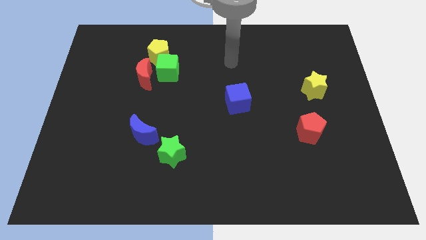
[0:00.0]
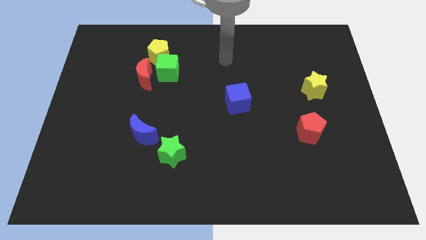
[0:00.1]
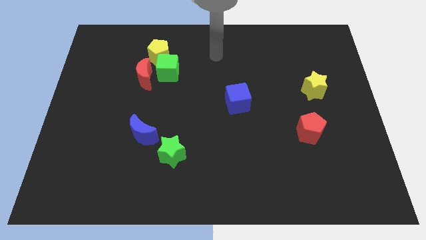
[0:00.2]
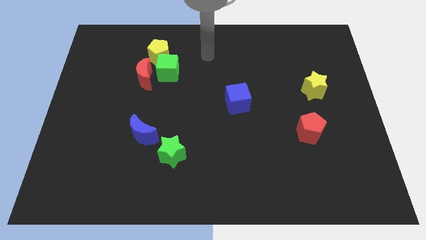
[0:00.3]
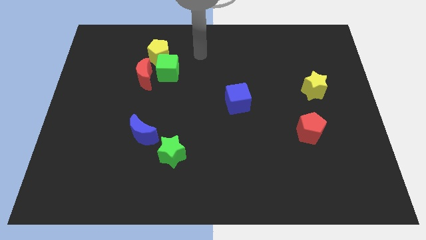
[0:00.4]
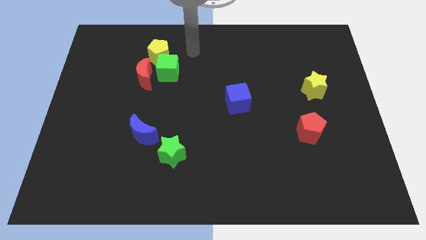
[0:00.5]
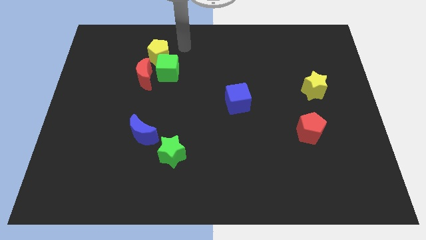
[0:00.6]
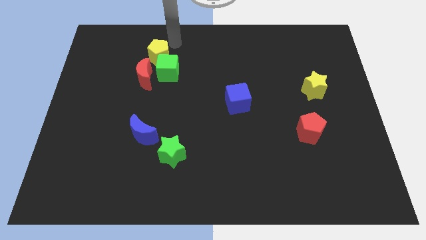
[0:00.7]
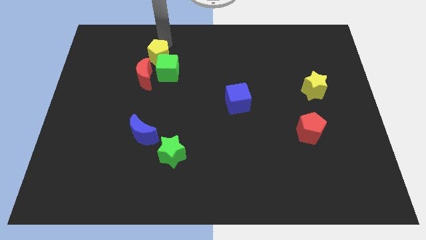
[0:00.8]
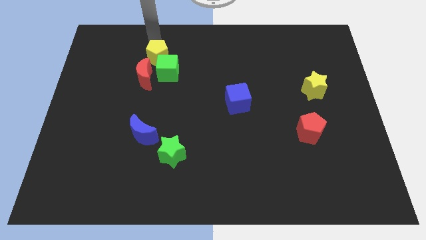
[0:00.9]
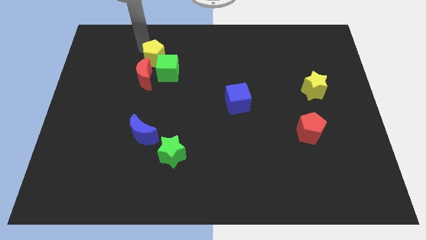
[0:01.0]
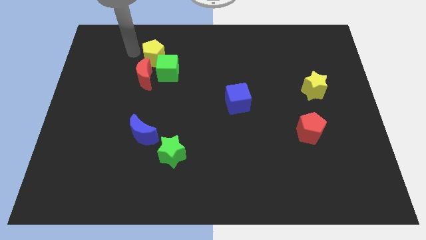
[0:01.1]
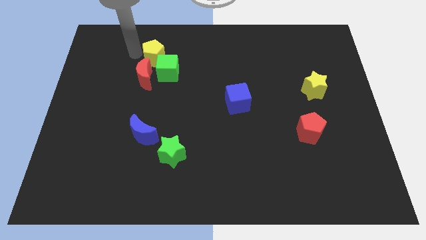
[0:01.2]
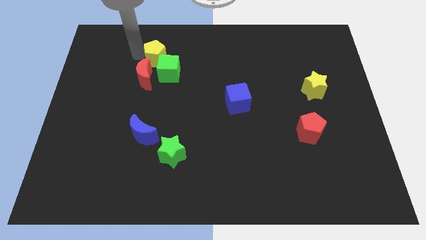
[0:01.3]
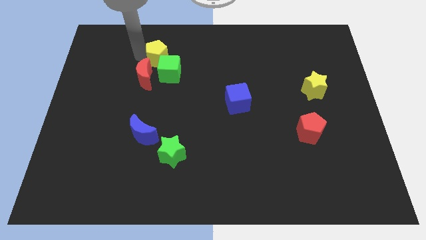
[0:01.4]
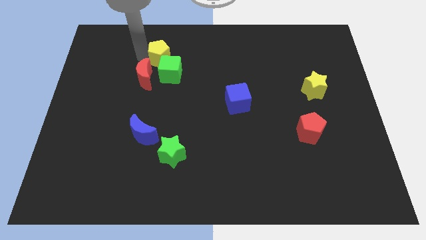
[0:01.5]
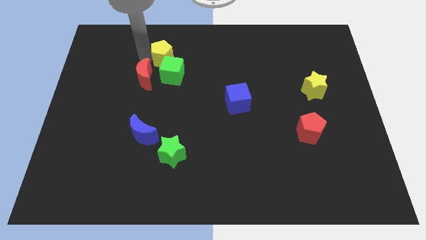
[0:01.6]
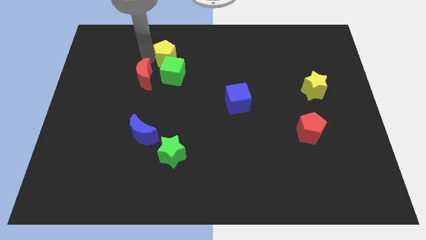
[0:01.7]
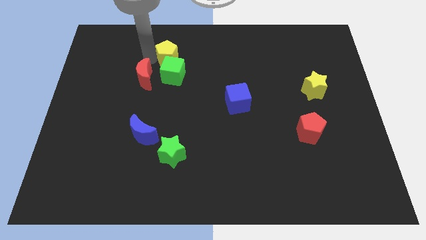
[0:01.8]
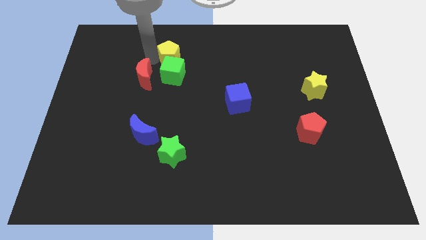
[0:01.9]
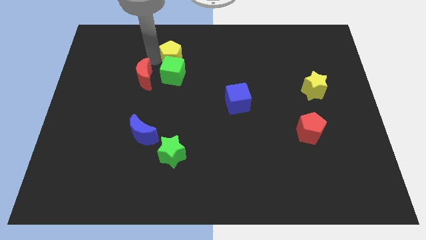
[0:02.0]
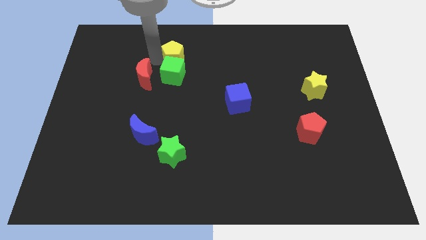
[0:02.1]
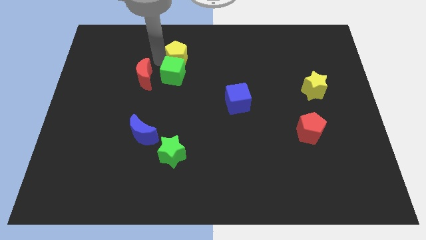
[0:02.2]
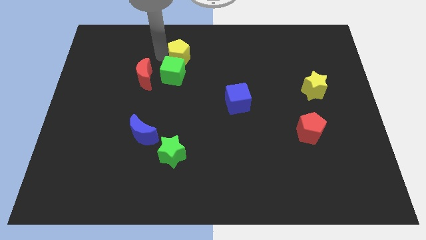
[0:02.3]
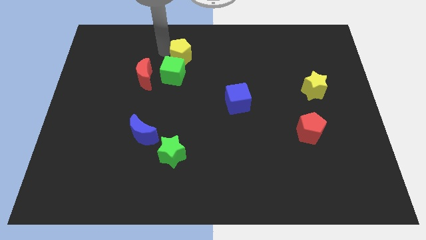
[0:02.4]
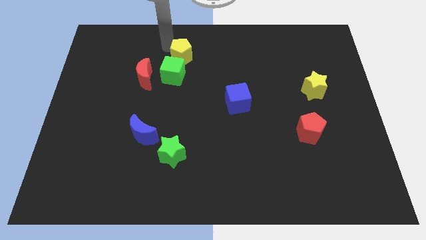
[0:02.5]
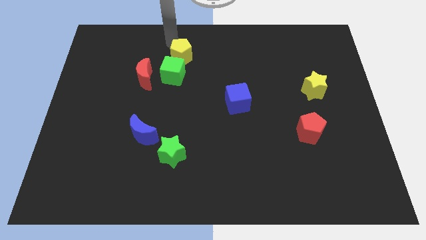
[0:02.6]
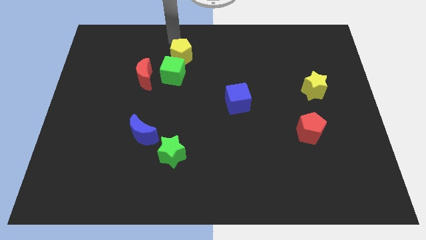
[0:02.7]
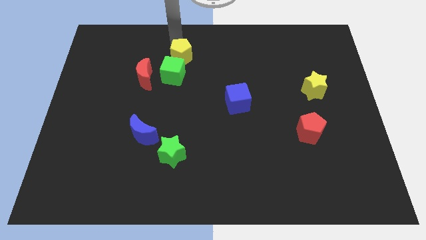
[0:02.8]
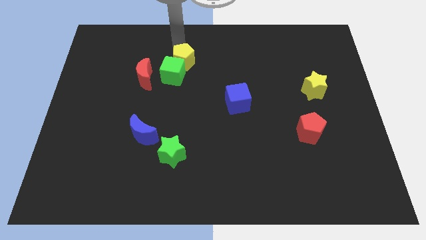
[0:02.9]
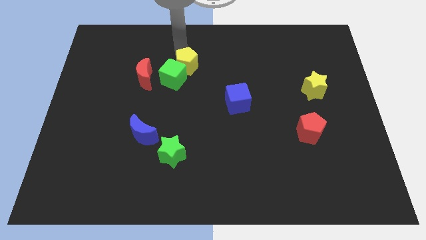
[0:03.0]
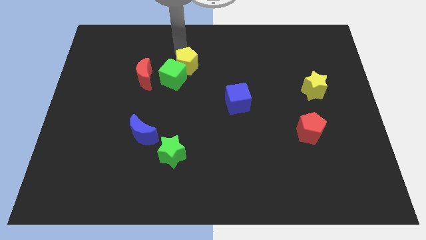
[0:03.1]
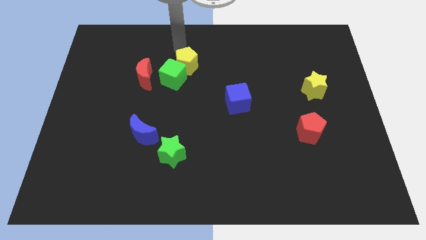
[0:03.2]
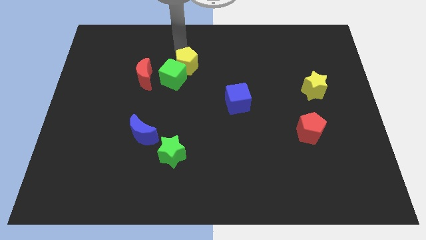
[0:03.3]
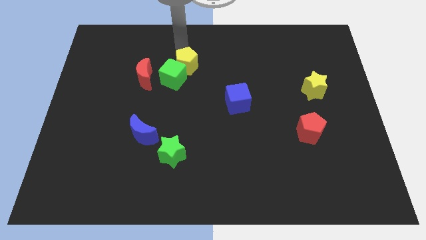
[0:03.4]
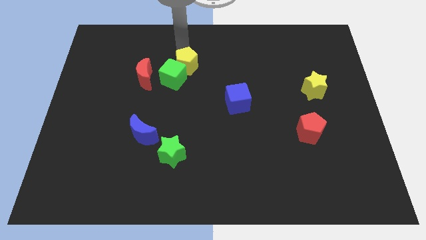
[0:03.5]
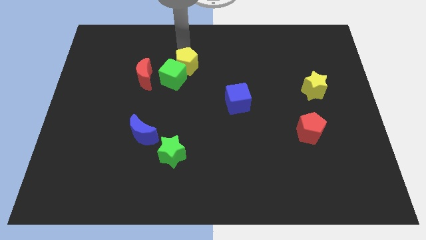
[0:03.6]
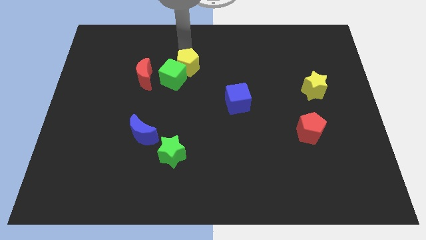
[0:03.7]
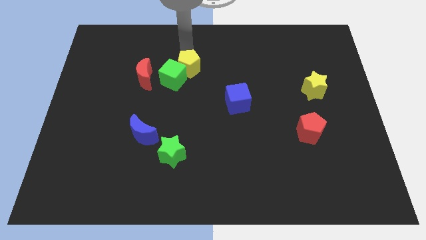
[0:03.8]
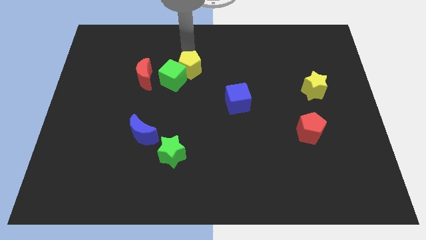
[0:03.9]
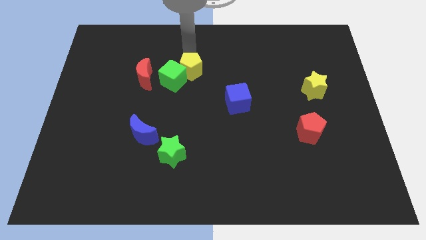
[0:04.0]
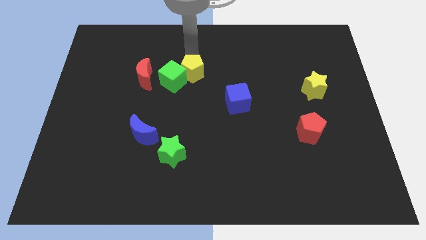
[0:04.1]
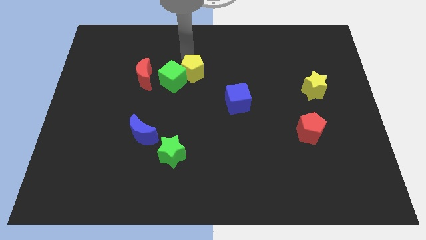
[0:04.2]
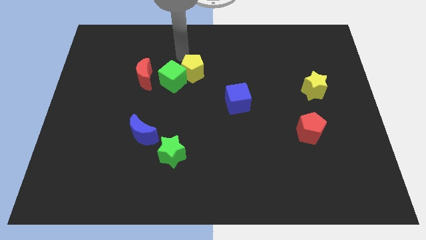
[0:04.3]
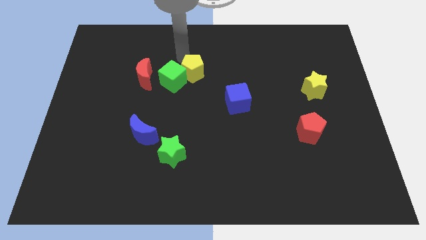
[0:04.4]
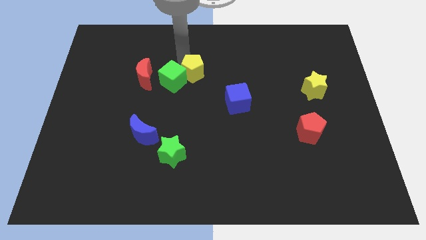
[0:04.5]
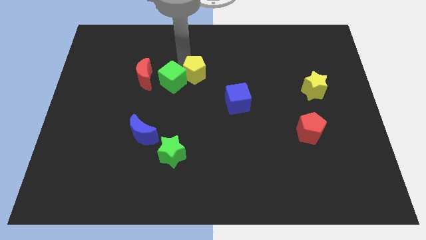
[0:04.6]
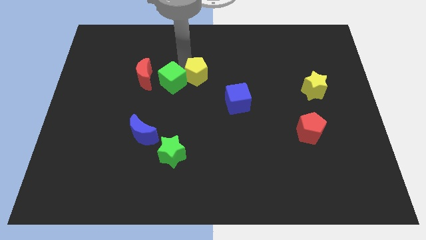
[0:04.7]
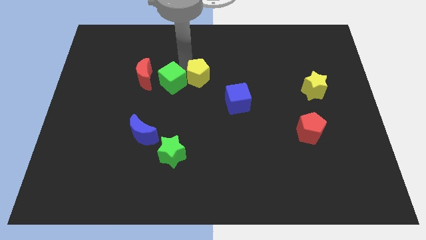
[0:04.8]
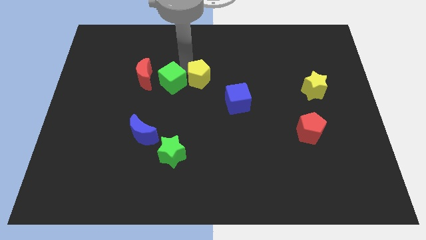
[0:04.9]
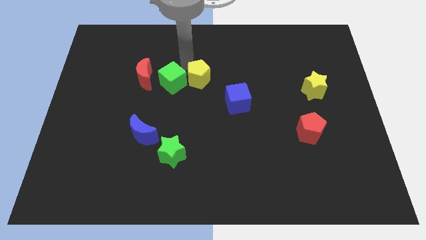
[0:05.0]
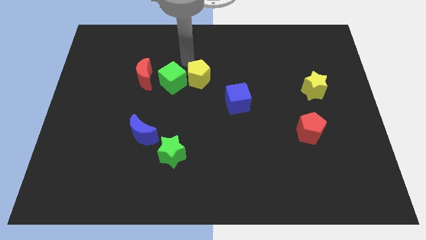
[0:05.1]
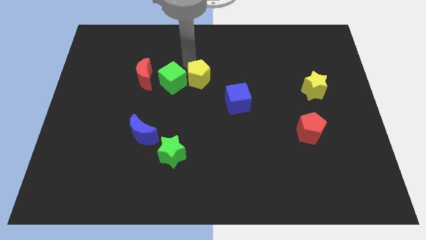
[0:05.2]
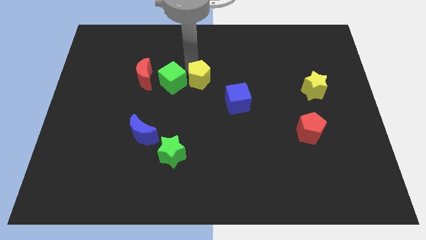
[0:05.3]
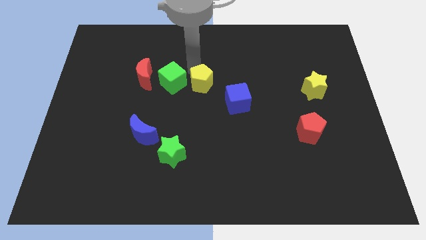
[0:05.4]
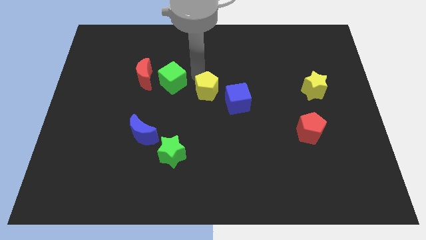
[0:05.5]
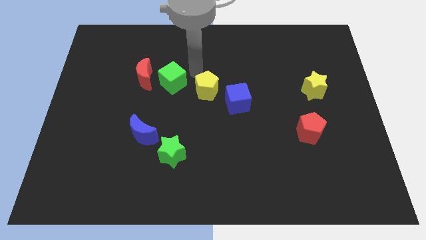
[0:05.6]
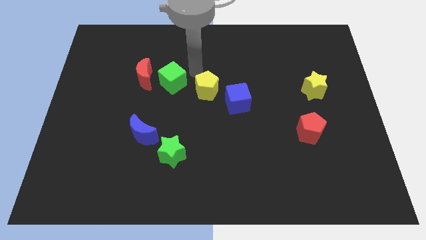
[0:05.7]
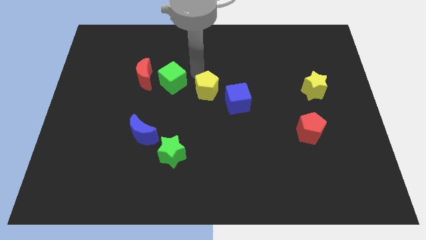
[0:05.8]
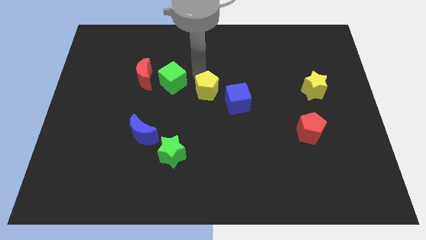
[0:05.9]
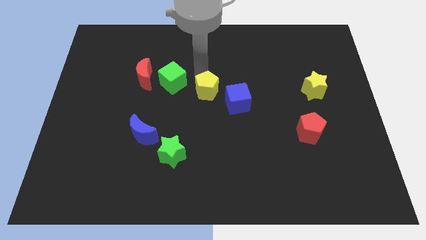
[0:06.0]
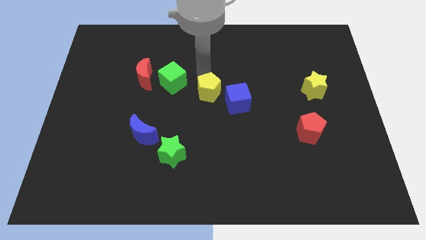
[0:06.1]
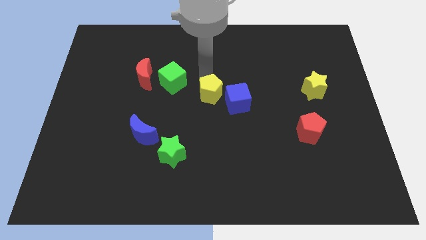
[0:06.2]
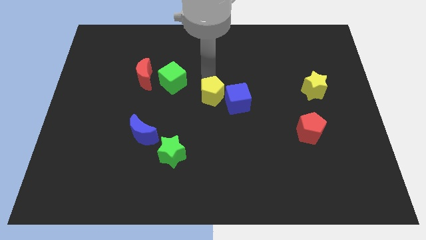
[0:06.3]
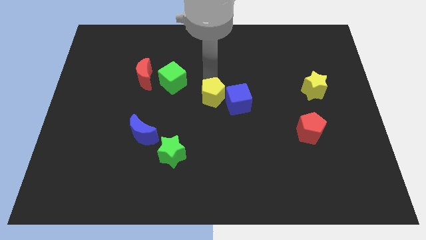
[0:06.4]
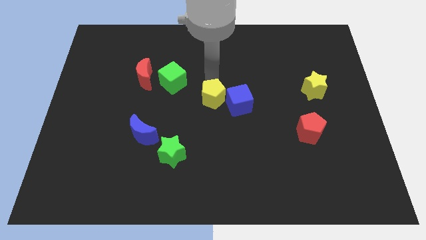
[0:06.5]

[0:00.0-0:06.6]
move the yellow pentagon down and then right

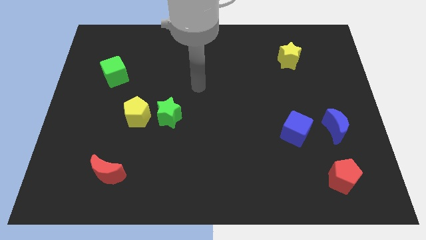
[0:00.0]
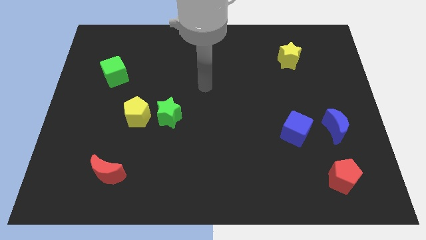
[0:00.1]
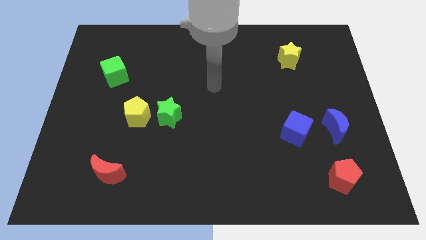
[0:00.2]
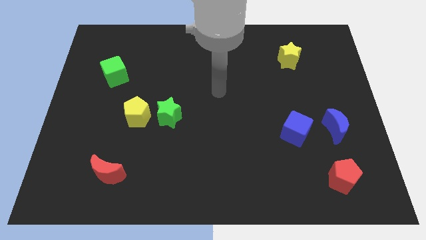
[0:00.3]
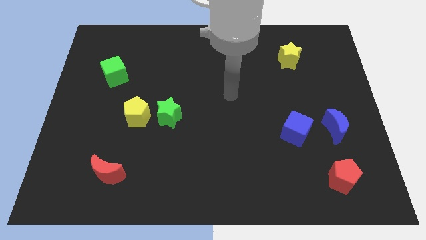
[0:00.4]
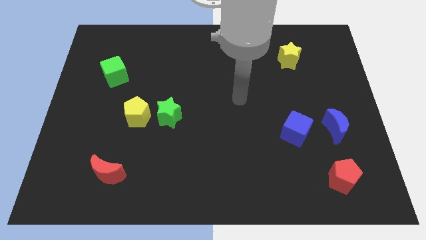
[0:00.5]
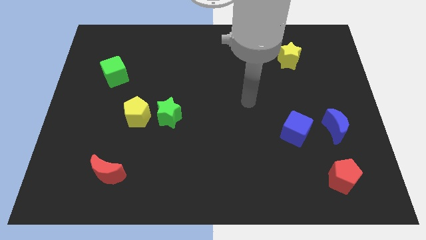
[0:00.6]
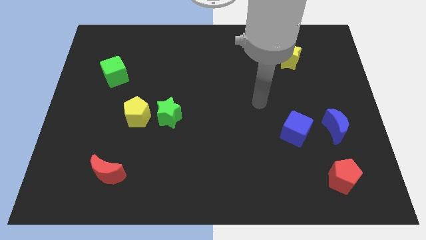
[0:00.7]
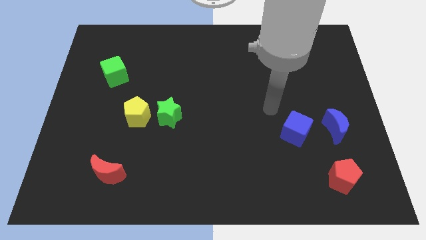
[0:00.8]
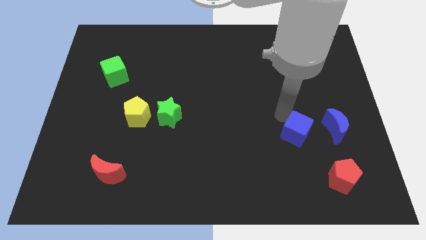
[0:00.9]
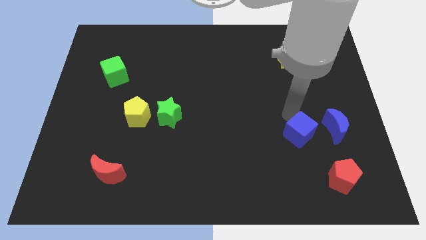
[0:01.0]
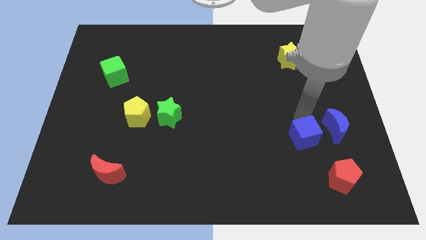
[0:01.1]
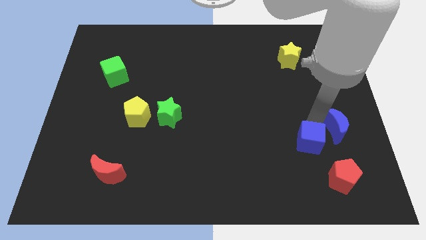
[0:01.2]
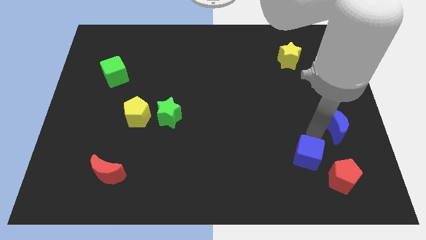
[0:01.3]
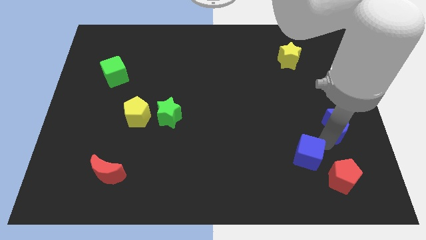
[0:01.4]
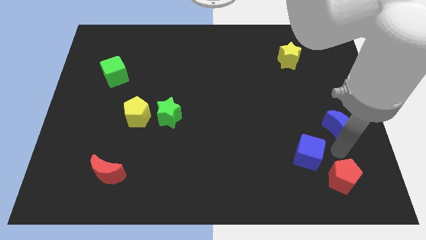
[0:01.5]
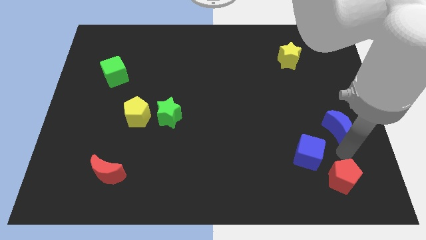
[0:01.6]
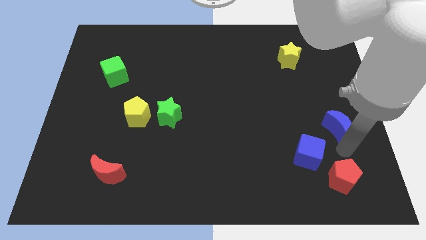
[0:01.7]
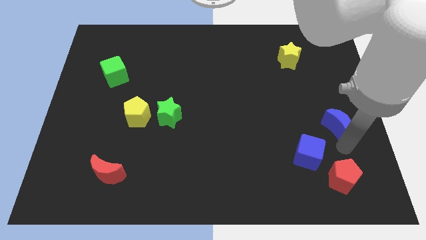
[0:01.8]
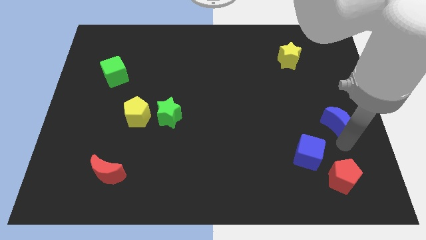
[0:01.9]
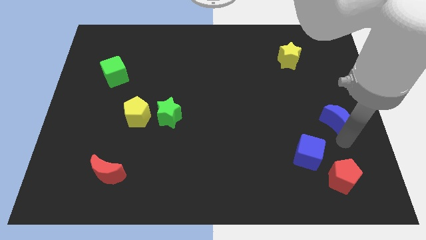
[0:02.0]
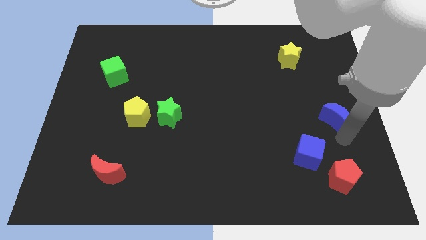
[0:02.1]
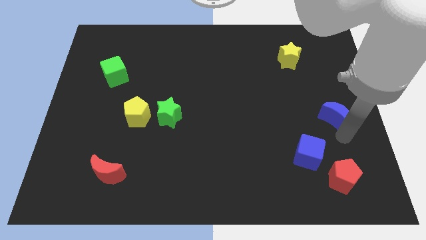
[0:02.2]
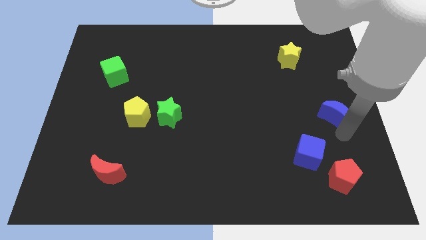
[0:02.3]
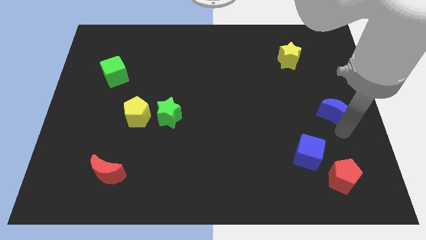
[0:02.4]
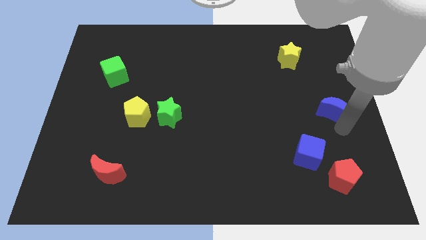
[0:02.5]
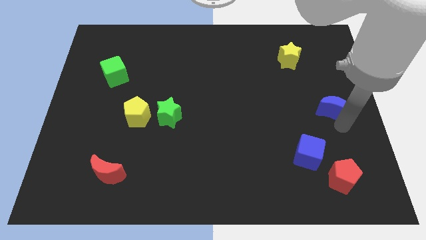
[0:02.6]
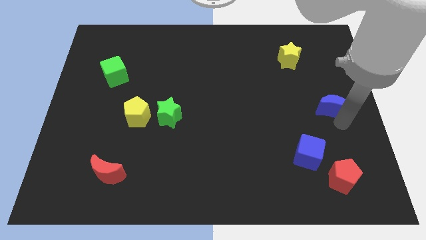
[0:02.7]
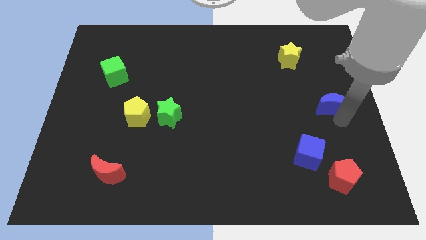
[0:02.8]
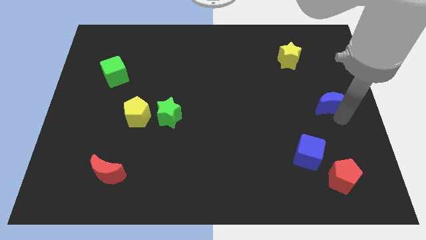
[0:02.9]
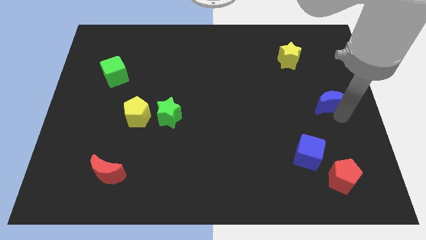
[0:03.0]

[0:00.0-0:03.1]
push the blue moon a little upwards
